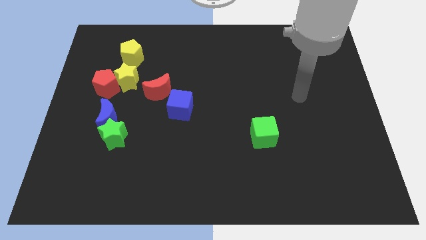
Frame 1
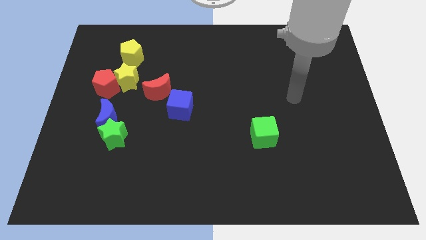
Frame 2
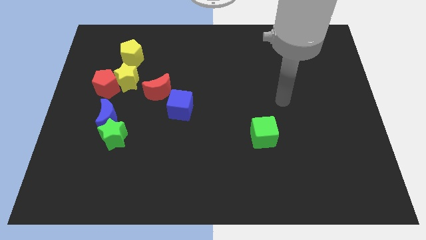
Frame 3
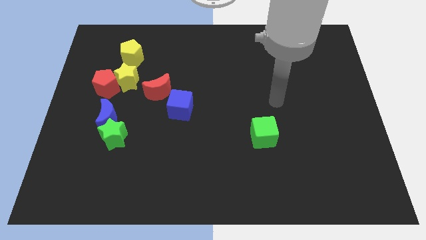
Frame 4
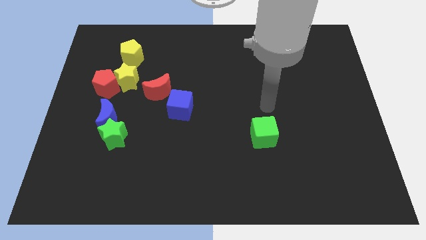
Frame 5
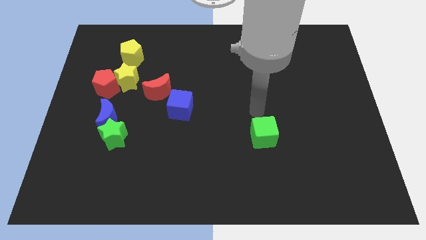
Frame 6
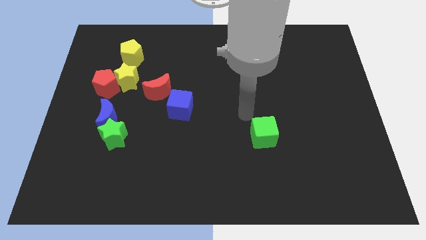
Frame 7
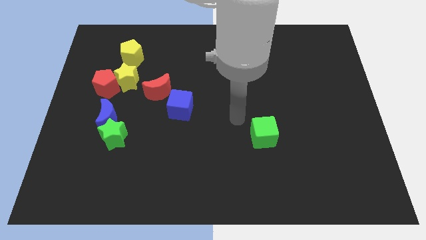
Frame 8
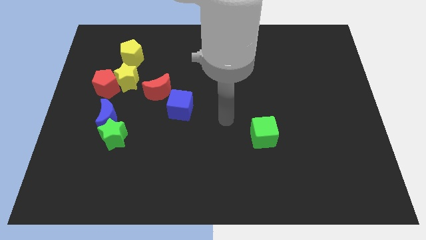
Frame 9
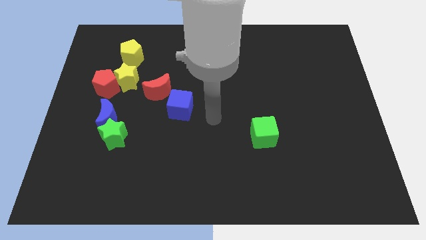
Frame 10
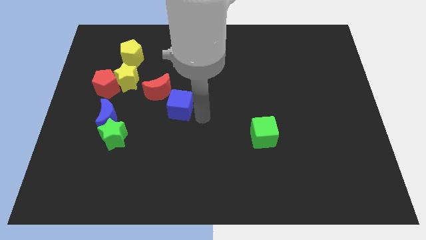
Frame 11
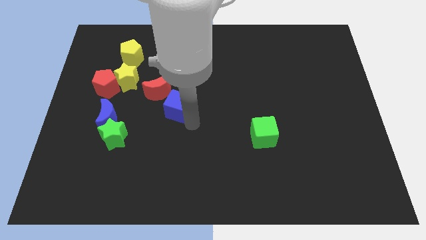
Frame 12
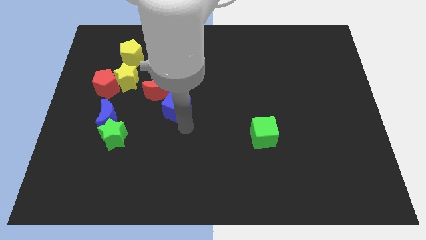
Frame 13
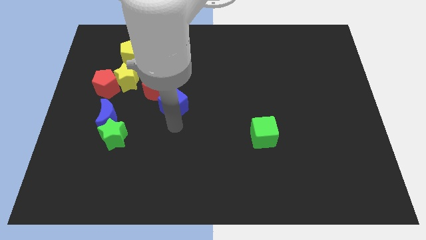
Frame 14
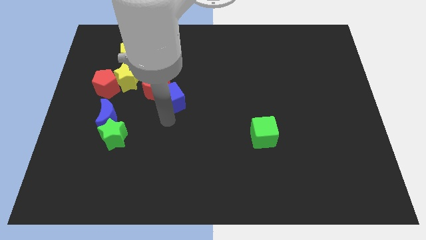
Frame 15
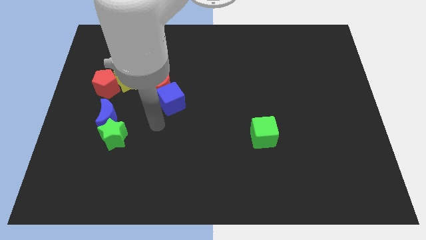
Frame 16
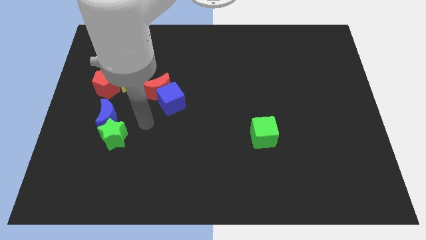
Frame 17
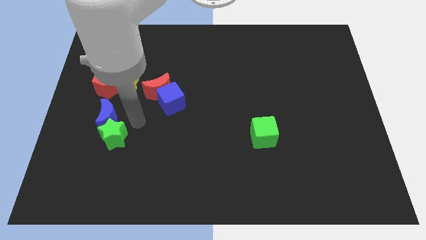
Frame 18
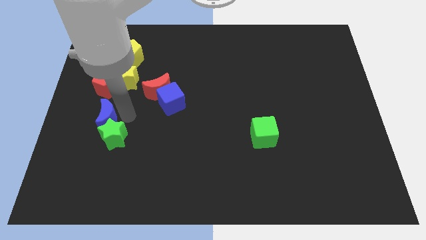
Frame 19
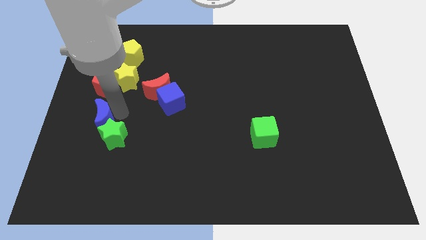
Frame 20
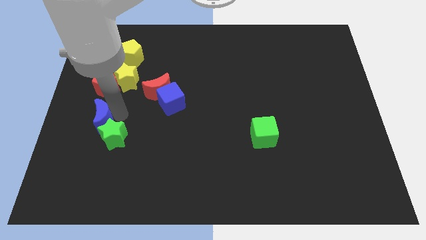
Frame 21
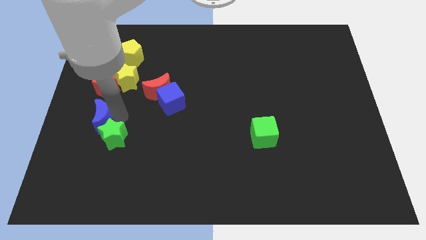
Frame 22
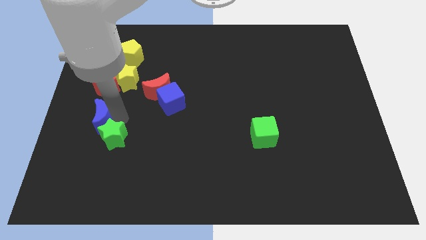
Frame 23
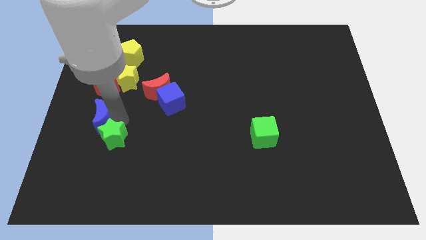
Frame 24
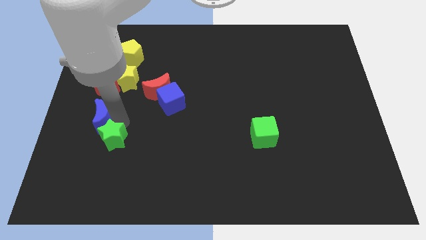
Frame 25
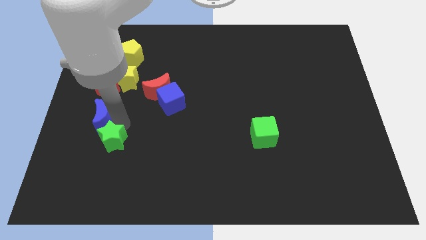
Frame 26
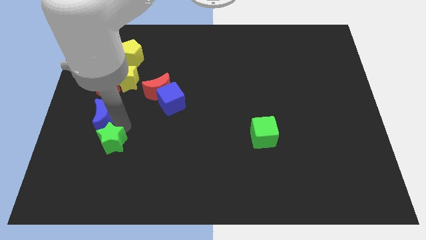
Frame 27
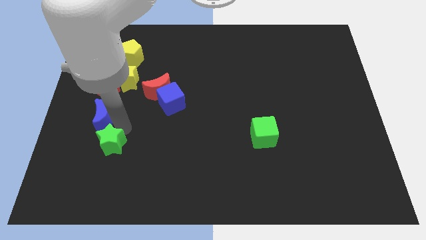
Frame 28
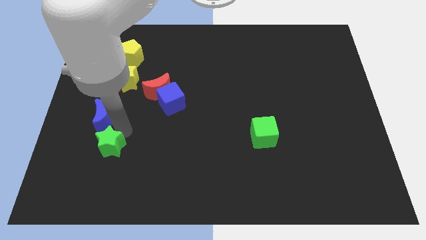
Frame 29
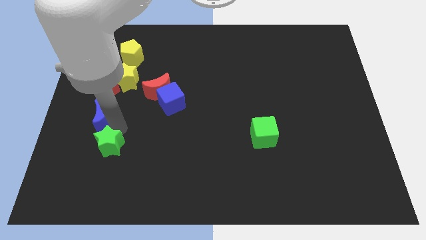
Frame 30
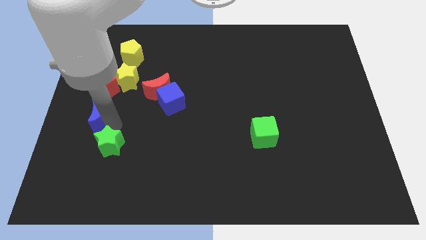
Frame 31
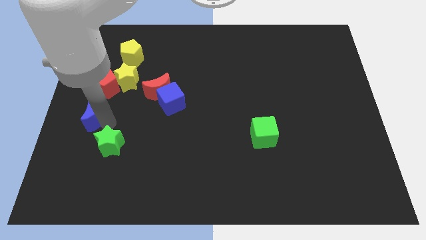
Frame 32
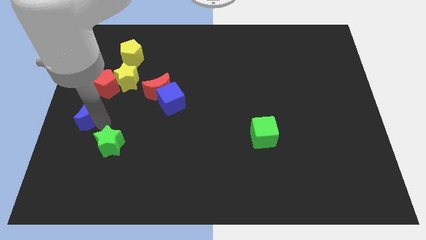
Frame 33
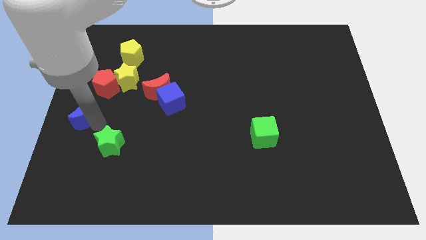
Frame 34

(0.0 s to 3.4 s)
pull the green star apart from the blue moon

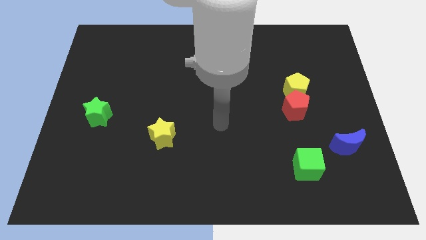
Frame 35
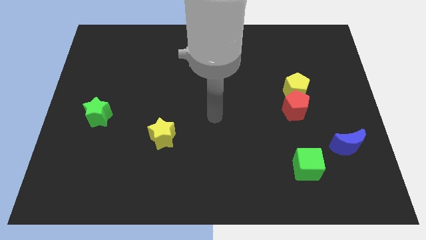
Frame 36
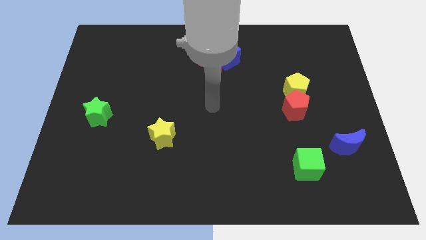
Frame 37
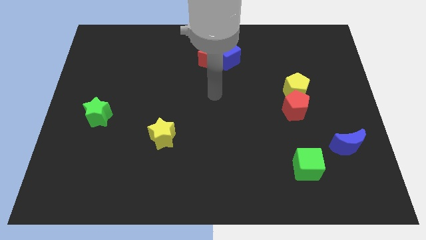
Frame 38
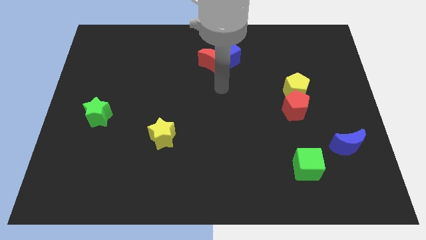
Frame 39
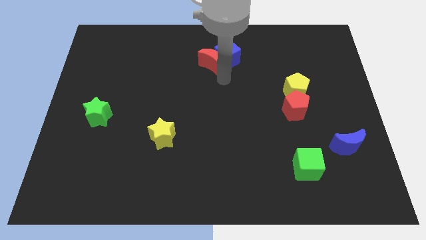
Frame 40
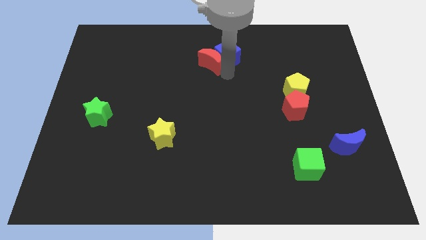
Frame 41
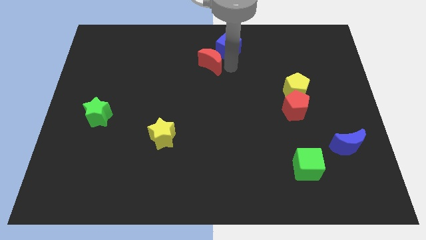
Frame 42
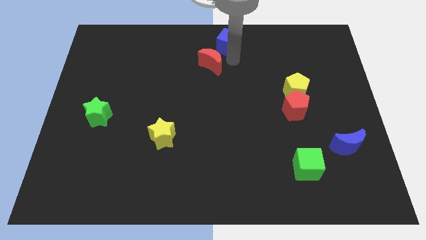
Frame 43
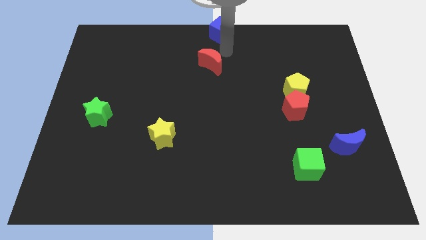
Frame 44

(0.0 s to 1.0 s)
pull the red moon apart from the blue cube

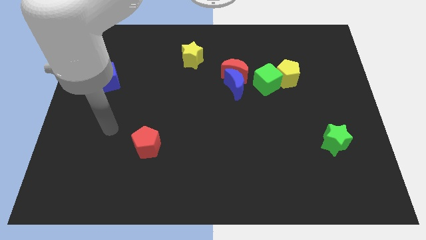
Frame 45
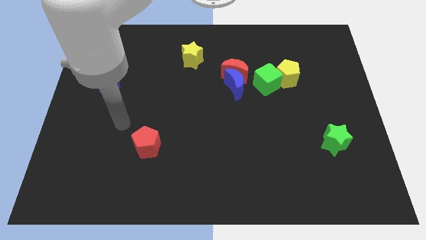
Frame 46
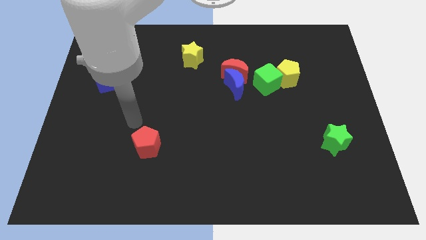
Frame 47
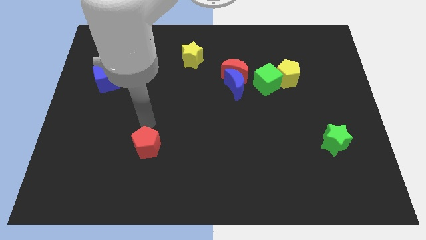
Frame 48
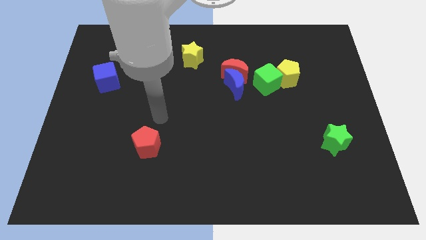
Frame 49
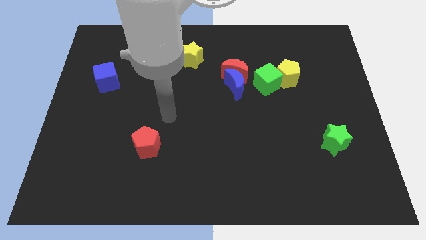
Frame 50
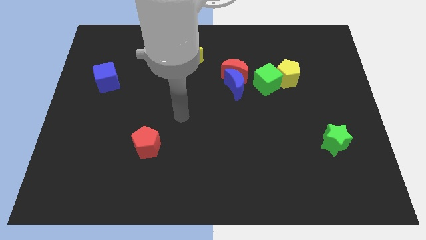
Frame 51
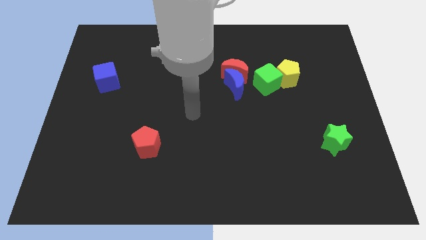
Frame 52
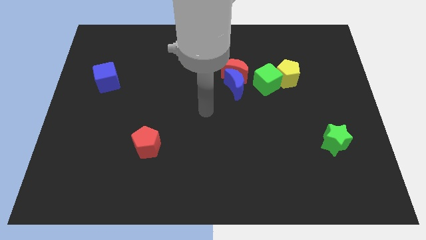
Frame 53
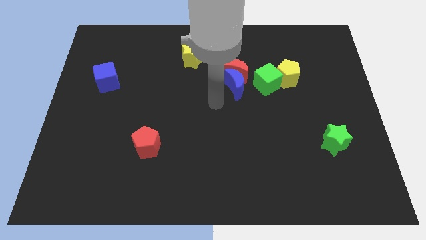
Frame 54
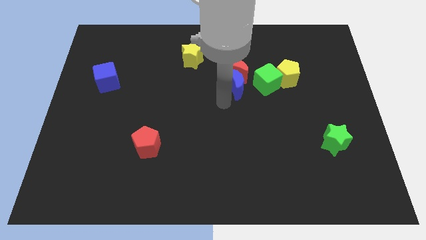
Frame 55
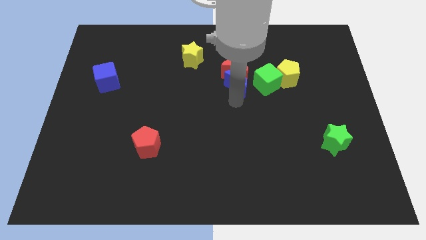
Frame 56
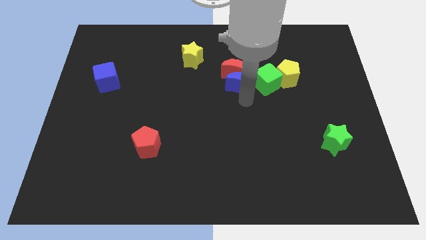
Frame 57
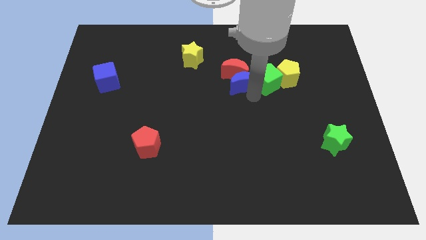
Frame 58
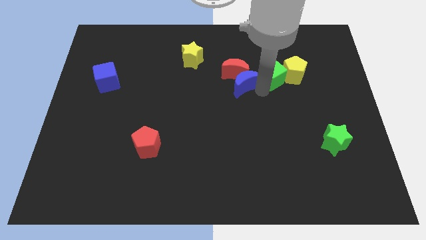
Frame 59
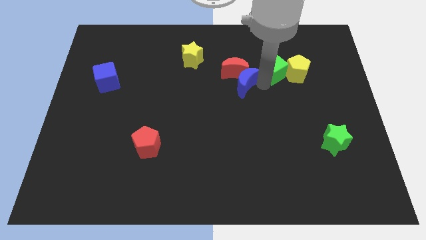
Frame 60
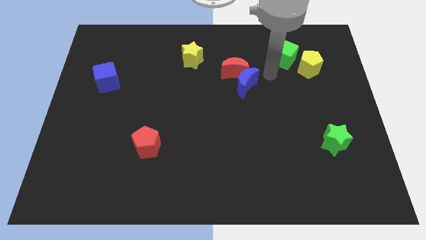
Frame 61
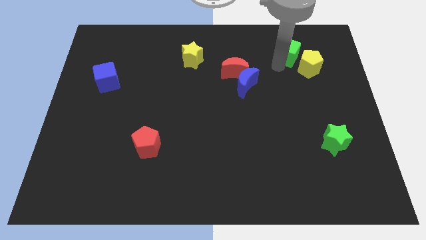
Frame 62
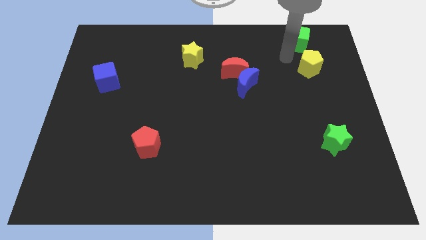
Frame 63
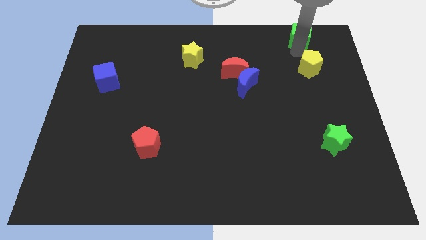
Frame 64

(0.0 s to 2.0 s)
pull the yellow pentagon apart from the green cube

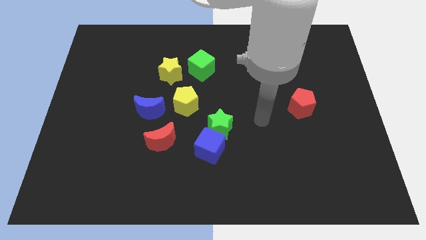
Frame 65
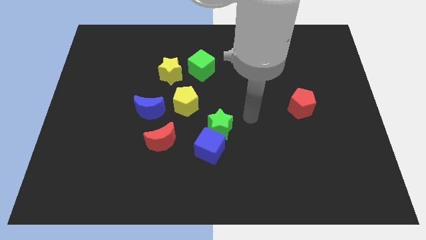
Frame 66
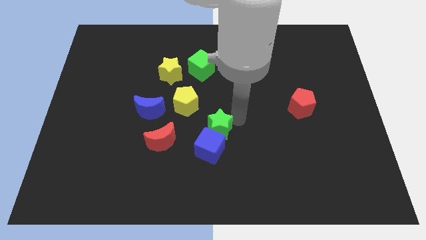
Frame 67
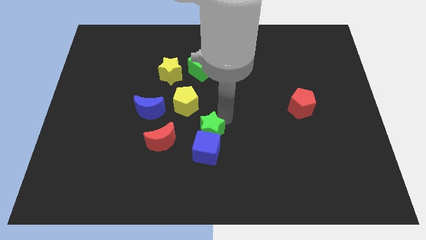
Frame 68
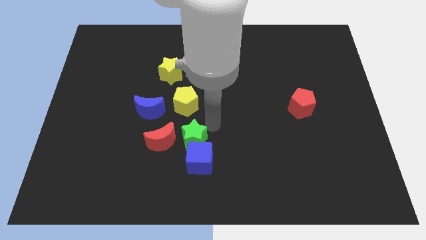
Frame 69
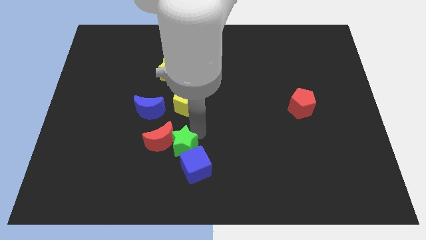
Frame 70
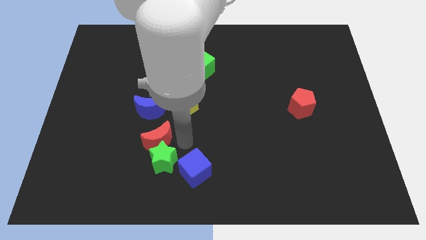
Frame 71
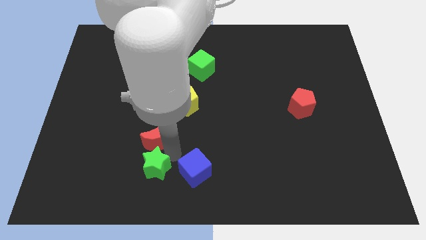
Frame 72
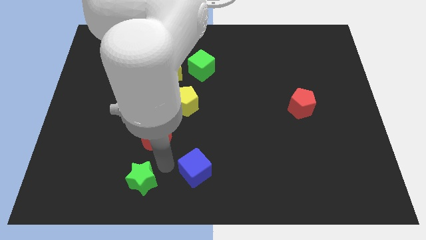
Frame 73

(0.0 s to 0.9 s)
separate the blue cube from the green star

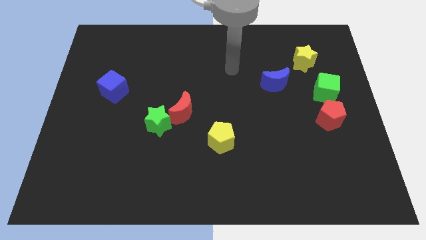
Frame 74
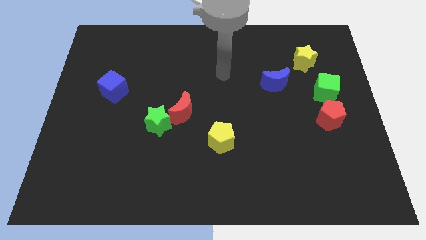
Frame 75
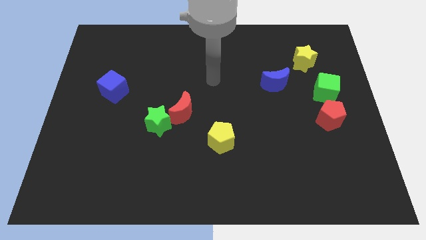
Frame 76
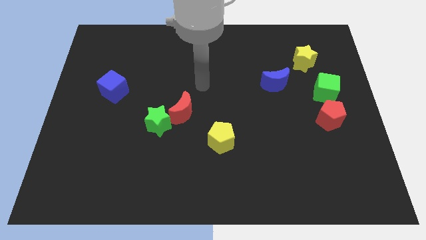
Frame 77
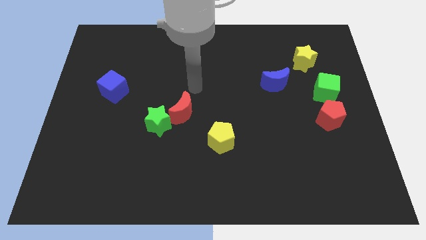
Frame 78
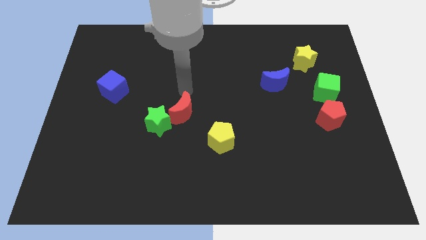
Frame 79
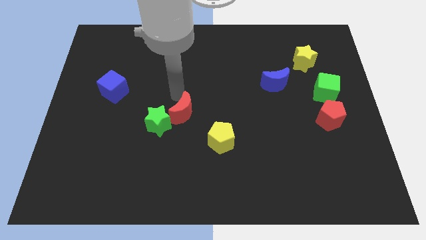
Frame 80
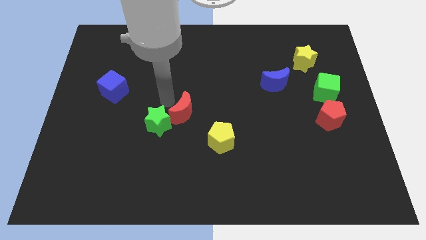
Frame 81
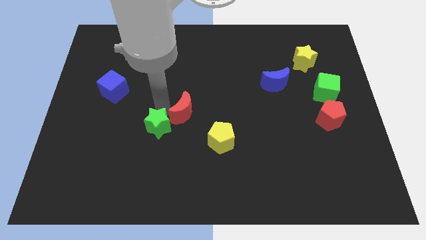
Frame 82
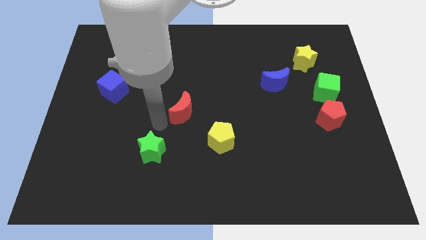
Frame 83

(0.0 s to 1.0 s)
pull the red moon apart from the green star

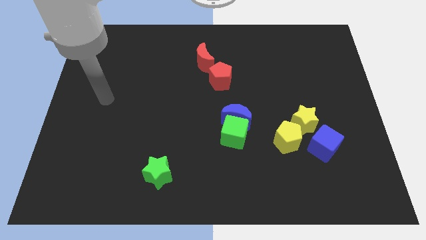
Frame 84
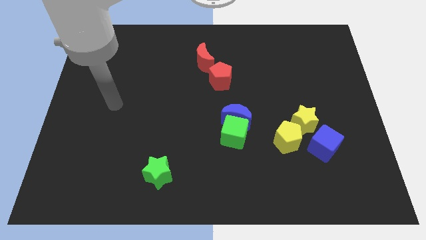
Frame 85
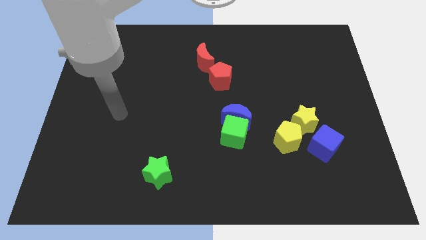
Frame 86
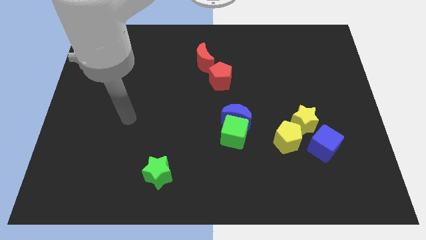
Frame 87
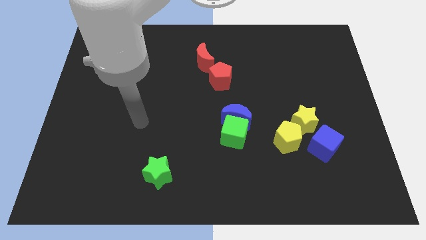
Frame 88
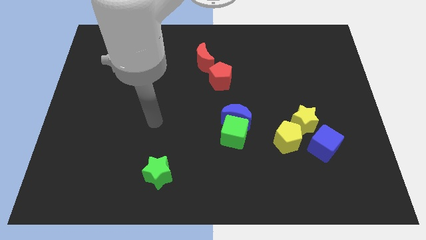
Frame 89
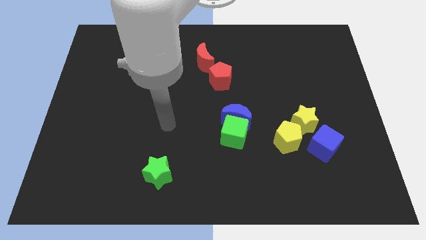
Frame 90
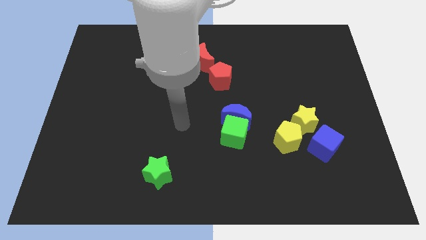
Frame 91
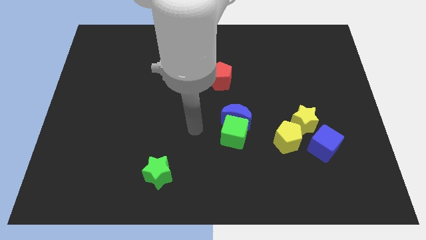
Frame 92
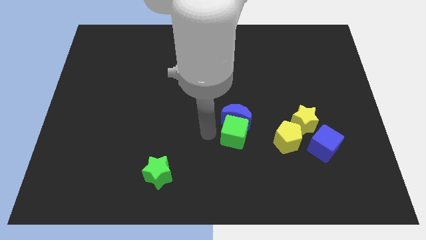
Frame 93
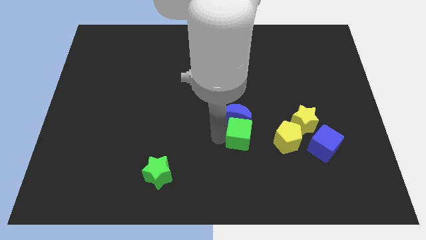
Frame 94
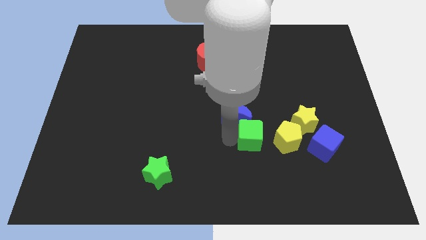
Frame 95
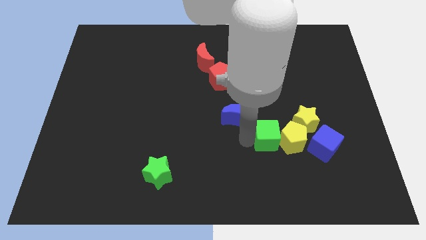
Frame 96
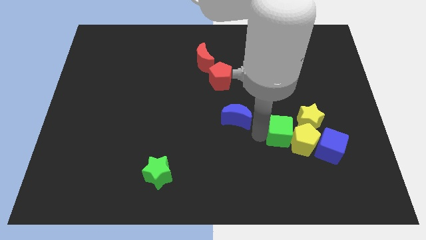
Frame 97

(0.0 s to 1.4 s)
move the blue moon away from the green cube
